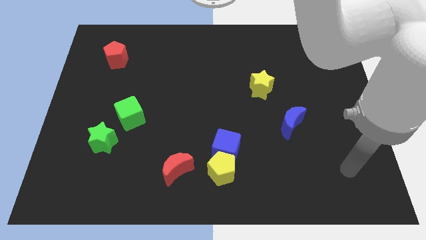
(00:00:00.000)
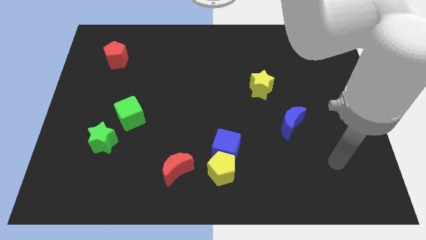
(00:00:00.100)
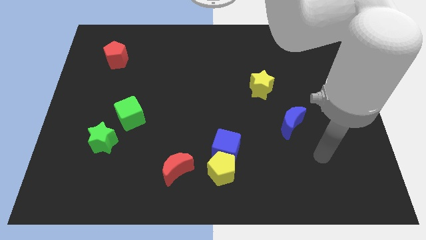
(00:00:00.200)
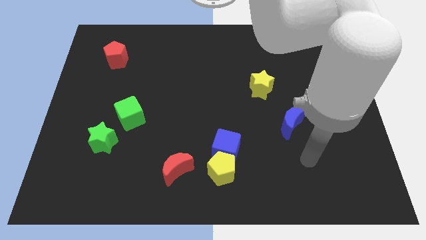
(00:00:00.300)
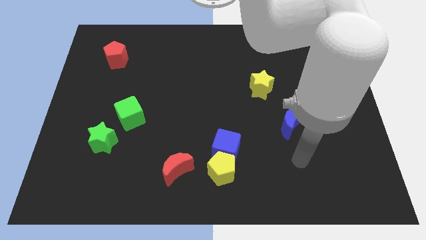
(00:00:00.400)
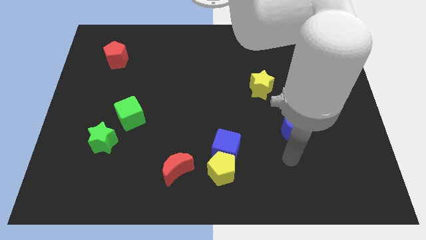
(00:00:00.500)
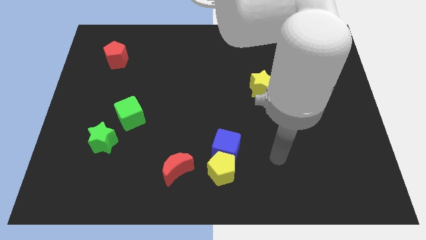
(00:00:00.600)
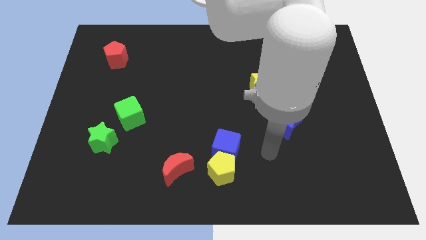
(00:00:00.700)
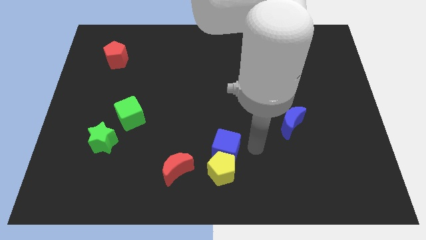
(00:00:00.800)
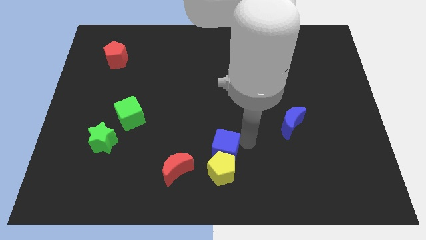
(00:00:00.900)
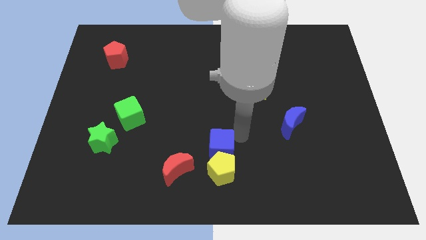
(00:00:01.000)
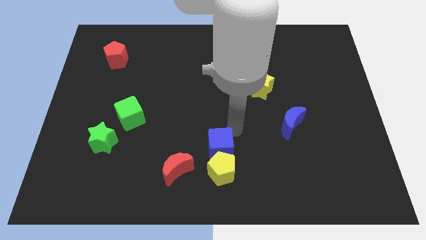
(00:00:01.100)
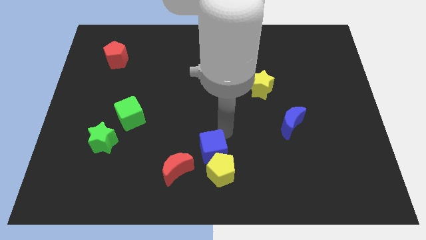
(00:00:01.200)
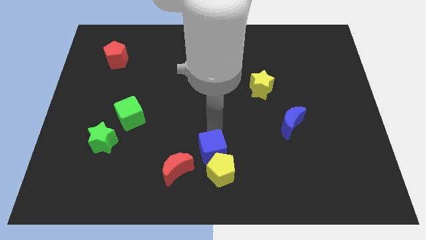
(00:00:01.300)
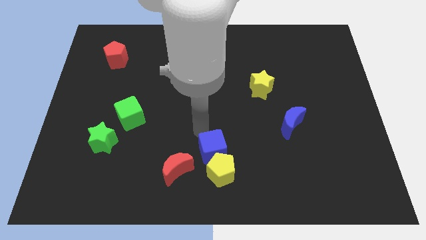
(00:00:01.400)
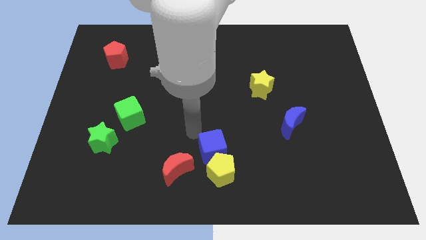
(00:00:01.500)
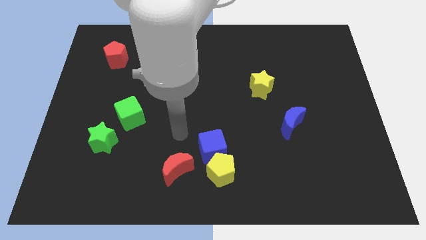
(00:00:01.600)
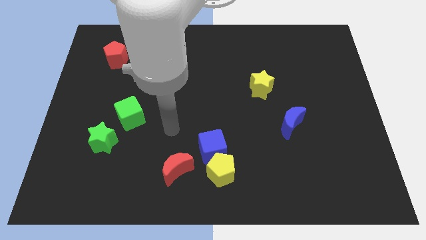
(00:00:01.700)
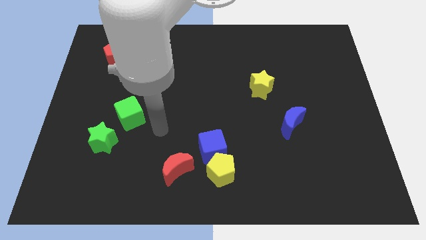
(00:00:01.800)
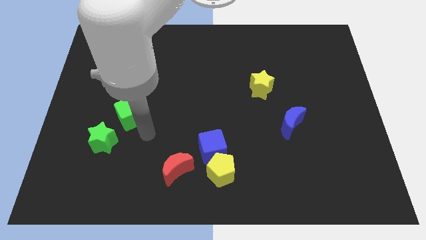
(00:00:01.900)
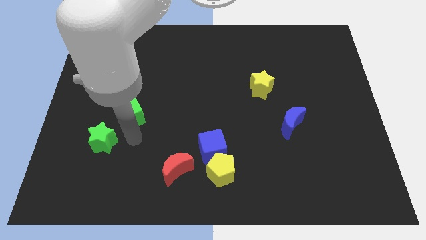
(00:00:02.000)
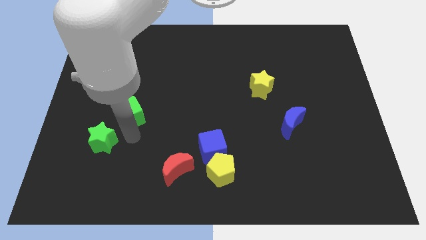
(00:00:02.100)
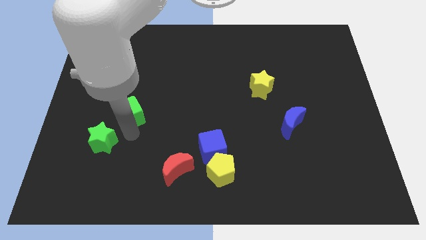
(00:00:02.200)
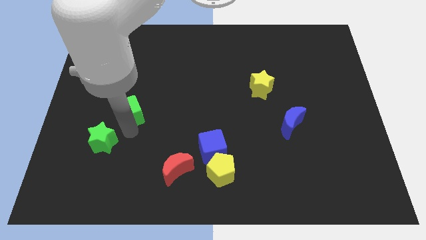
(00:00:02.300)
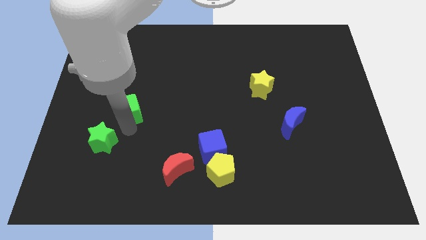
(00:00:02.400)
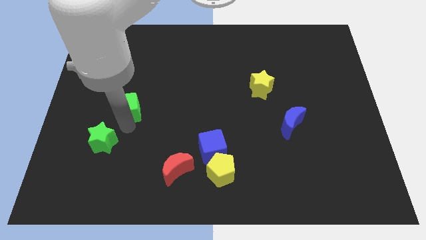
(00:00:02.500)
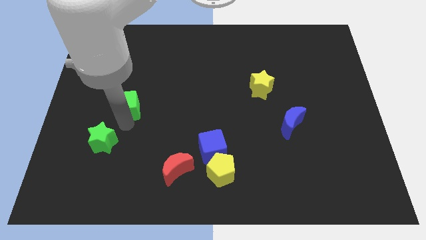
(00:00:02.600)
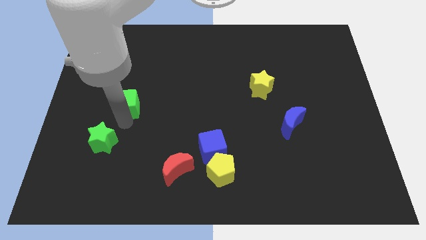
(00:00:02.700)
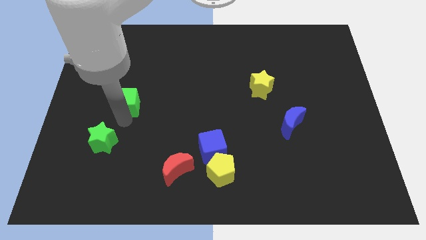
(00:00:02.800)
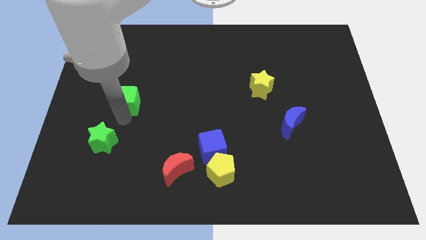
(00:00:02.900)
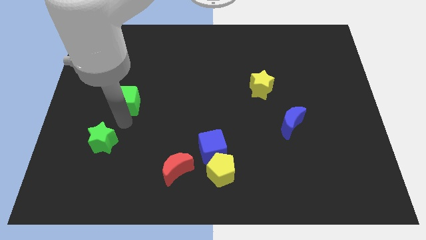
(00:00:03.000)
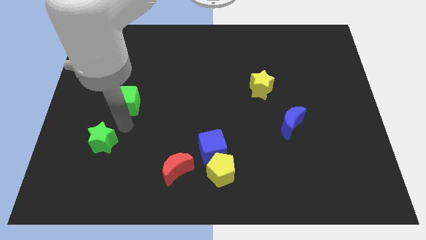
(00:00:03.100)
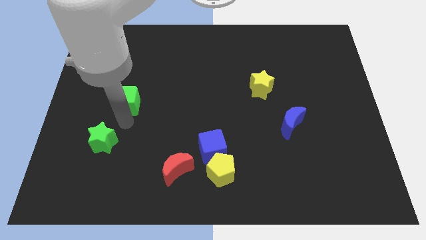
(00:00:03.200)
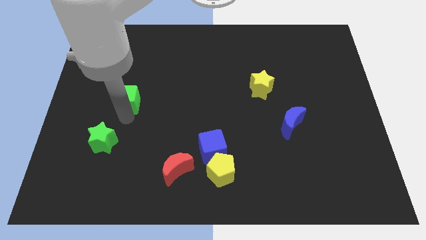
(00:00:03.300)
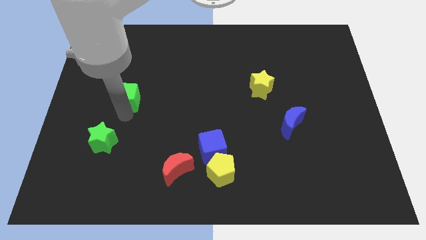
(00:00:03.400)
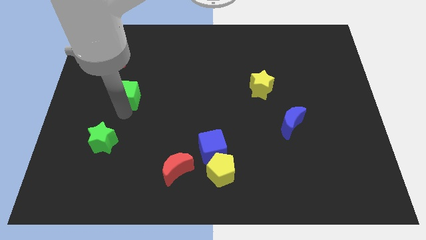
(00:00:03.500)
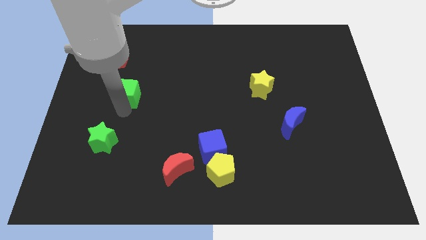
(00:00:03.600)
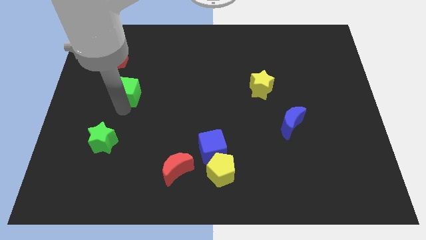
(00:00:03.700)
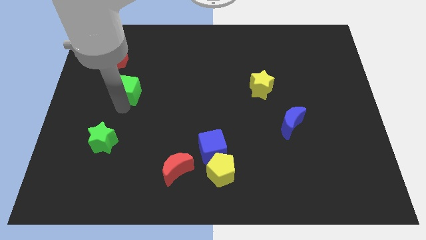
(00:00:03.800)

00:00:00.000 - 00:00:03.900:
slide the green cube up slightly

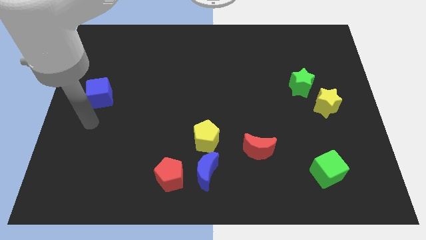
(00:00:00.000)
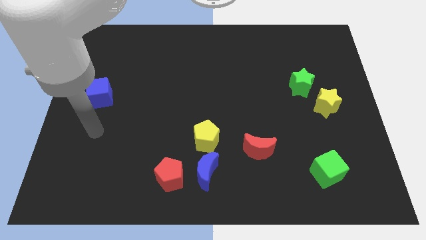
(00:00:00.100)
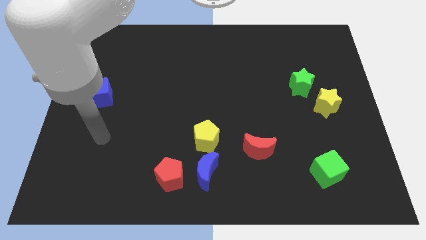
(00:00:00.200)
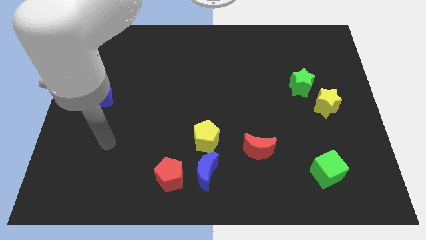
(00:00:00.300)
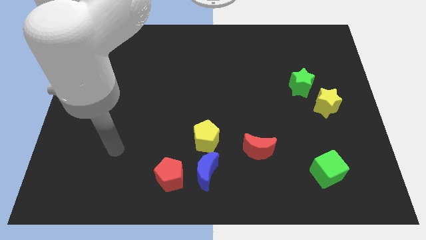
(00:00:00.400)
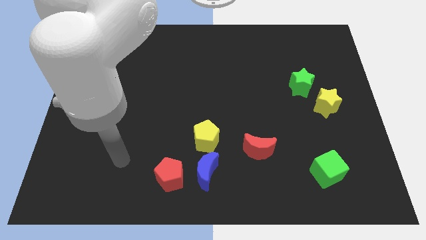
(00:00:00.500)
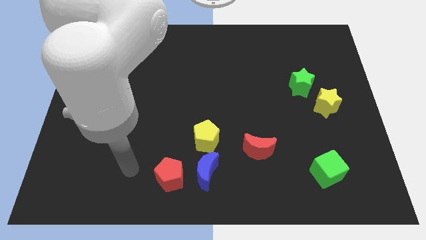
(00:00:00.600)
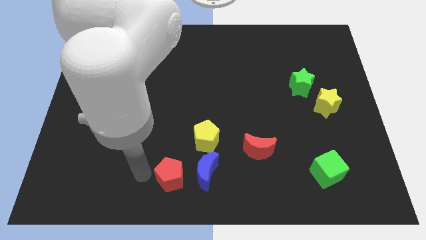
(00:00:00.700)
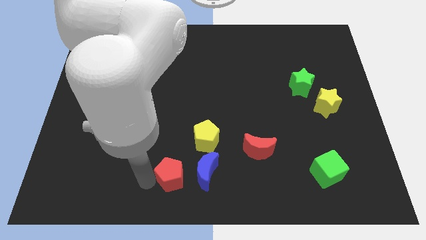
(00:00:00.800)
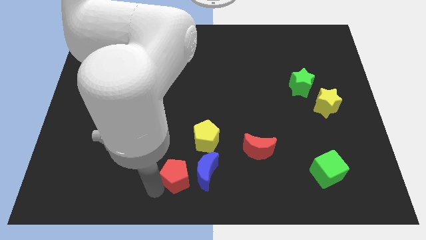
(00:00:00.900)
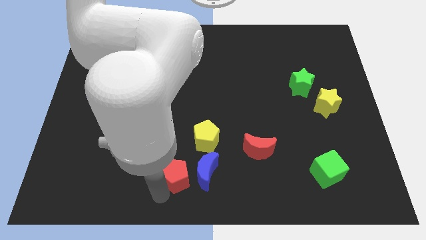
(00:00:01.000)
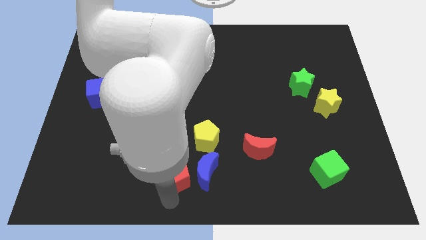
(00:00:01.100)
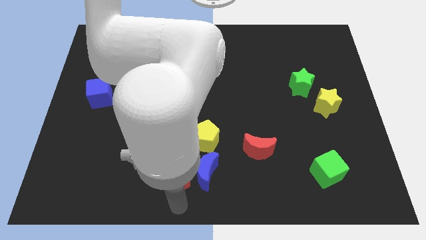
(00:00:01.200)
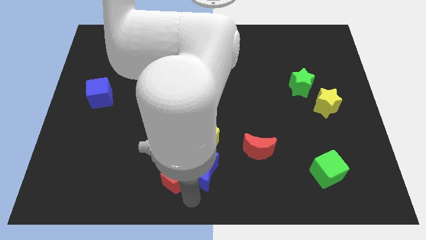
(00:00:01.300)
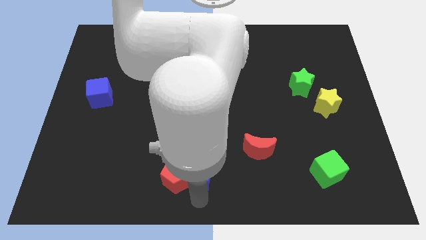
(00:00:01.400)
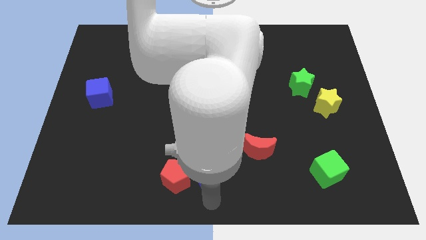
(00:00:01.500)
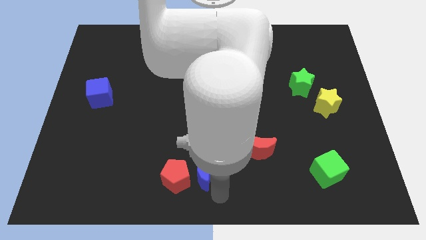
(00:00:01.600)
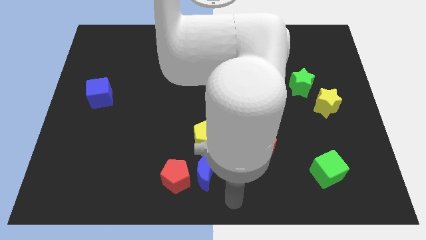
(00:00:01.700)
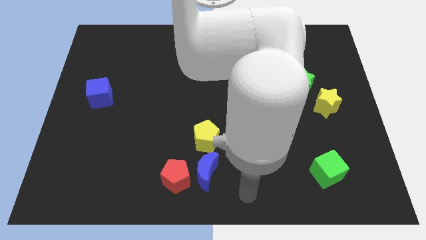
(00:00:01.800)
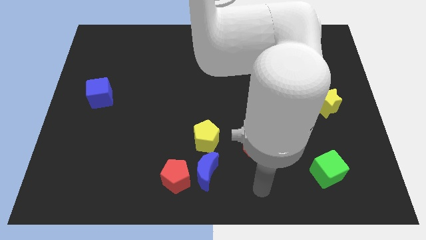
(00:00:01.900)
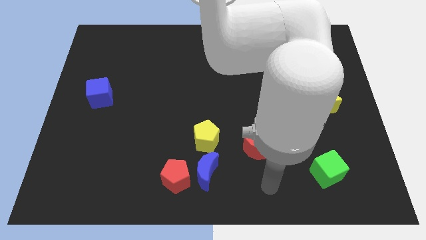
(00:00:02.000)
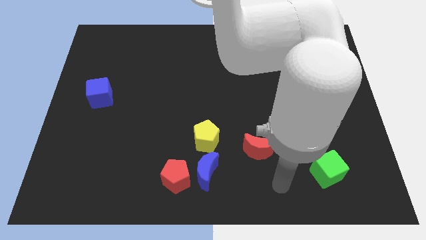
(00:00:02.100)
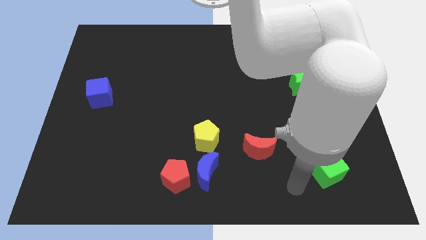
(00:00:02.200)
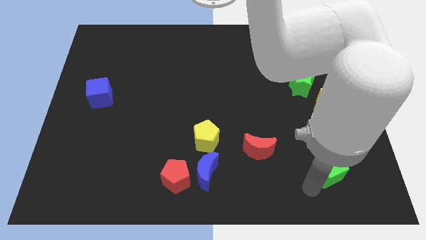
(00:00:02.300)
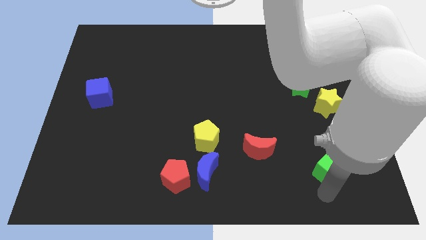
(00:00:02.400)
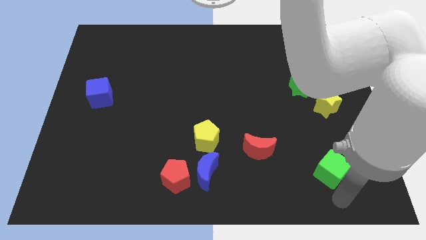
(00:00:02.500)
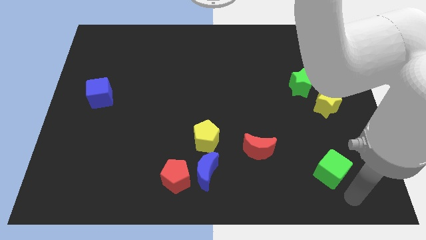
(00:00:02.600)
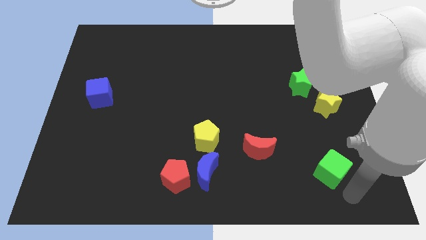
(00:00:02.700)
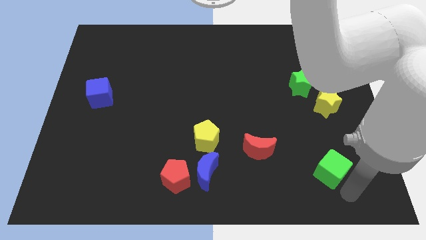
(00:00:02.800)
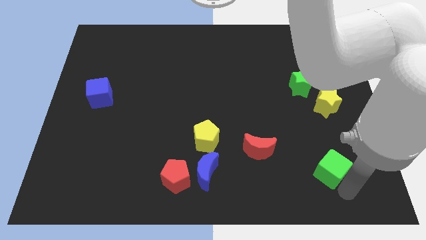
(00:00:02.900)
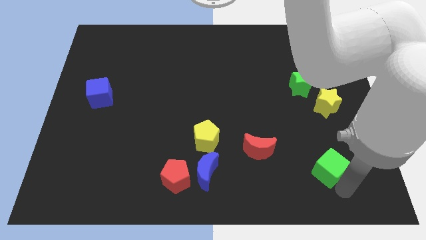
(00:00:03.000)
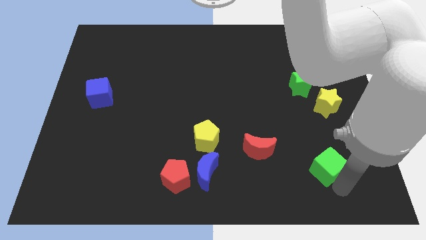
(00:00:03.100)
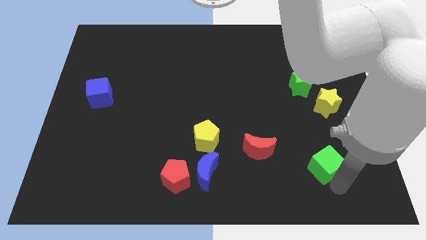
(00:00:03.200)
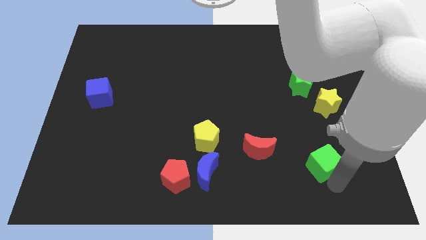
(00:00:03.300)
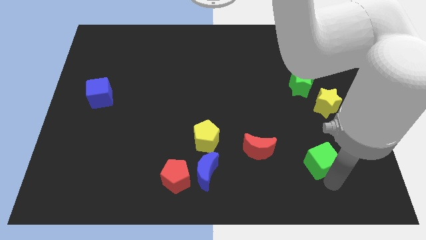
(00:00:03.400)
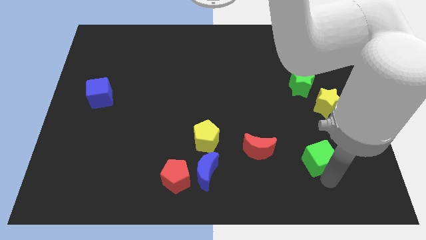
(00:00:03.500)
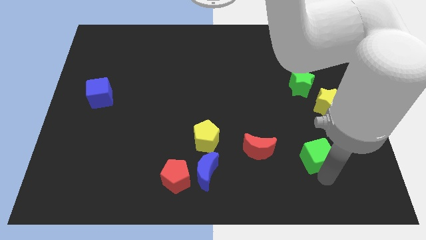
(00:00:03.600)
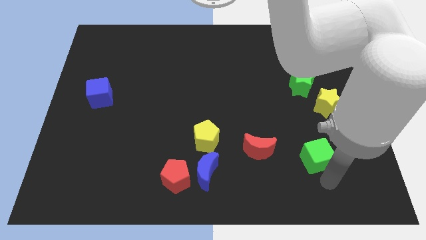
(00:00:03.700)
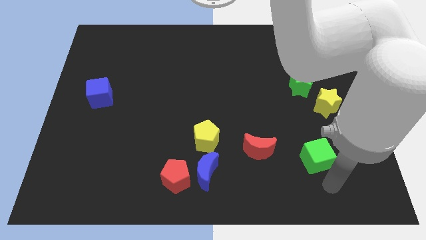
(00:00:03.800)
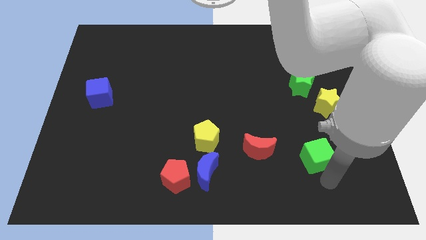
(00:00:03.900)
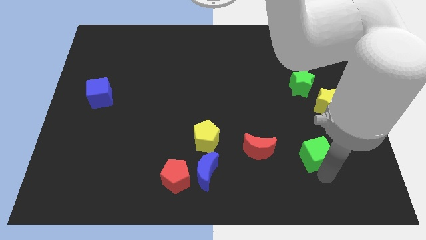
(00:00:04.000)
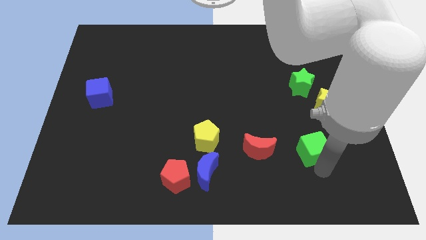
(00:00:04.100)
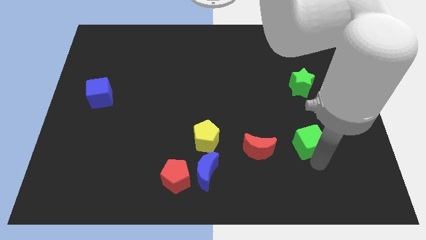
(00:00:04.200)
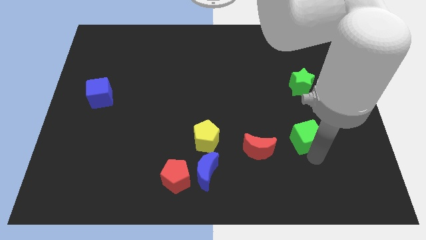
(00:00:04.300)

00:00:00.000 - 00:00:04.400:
slightly slide the green cube upwards
